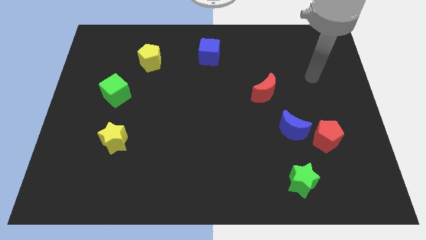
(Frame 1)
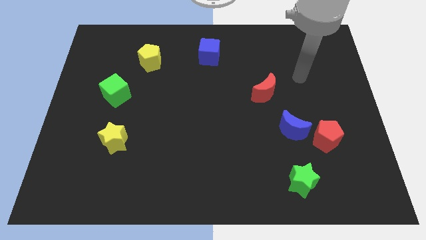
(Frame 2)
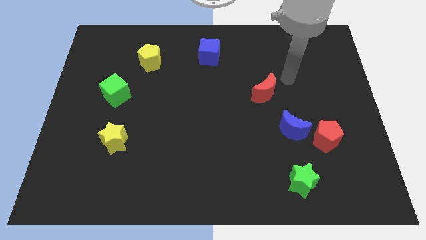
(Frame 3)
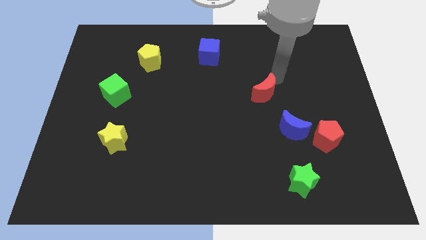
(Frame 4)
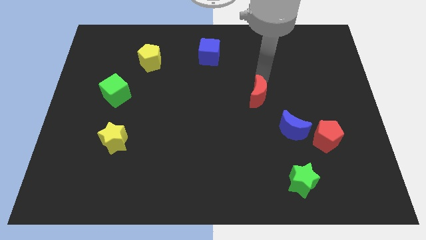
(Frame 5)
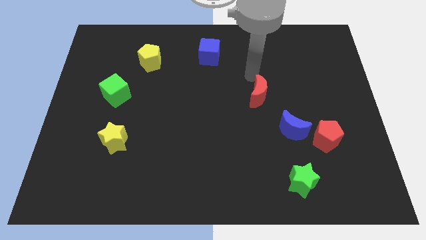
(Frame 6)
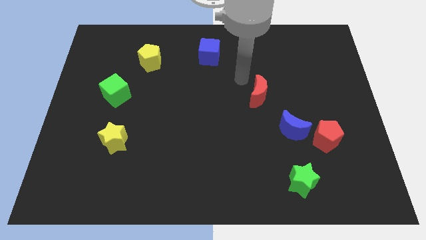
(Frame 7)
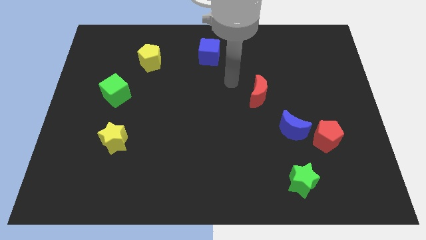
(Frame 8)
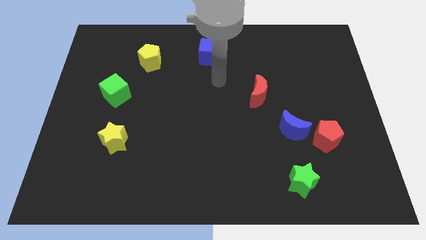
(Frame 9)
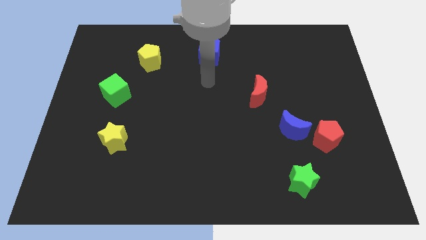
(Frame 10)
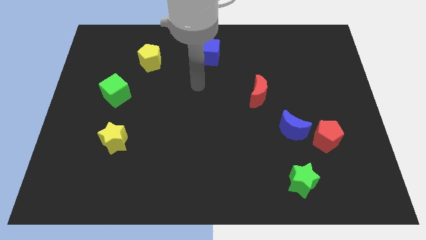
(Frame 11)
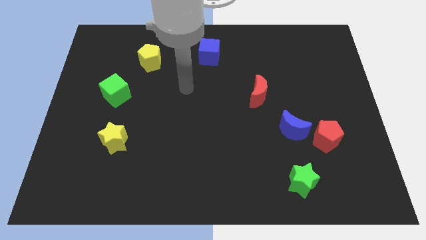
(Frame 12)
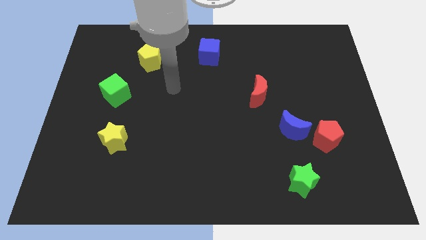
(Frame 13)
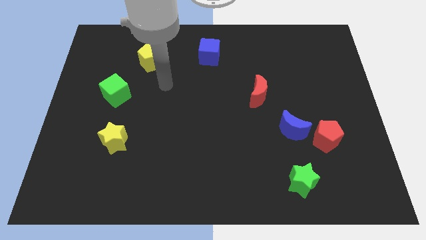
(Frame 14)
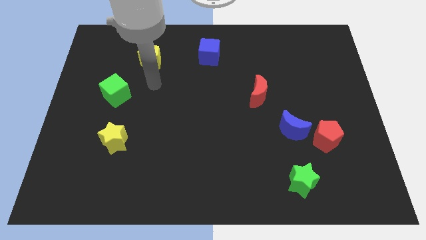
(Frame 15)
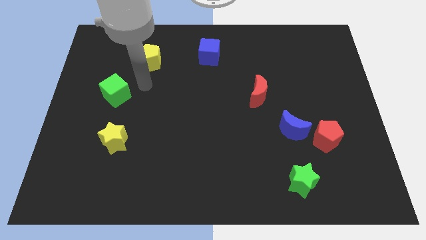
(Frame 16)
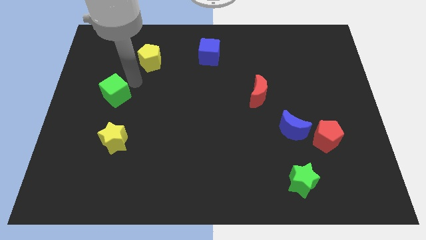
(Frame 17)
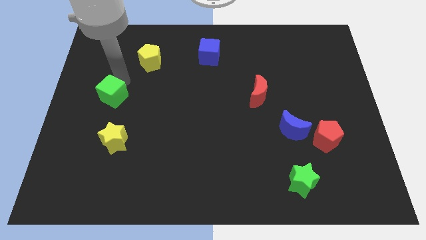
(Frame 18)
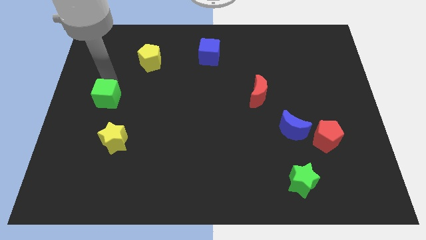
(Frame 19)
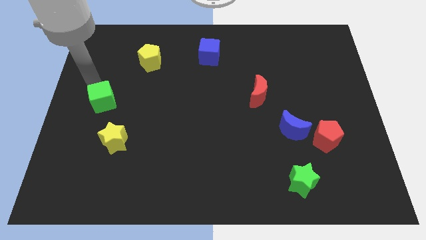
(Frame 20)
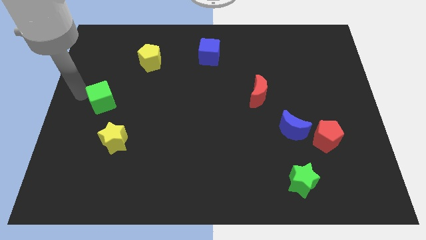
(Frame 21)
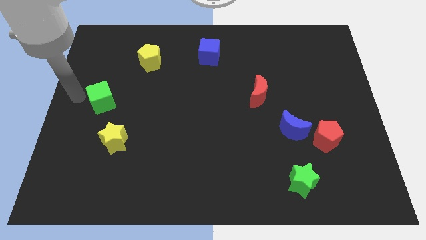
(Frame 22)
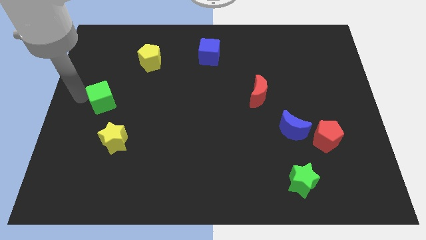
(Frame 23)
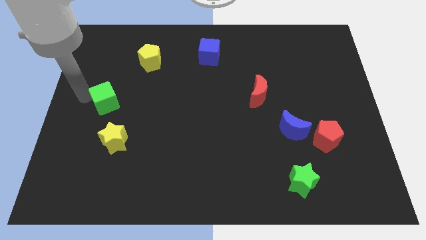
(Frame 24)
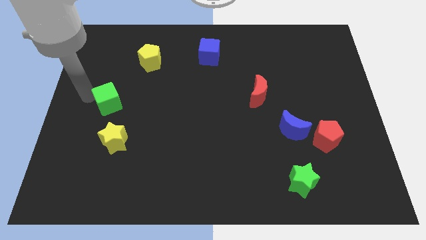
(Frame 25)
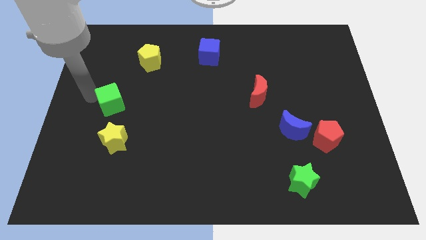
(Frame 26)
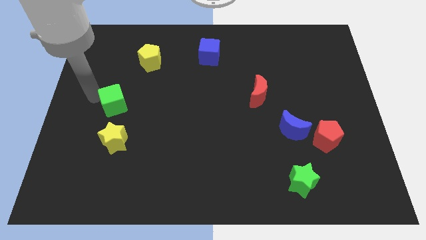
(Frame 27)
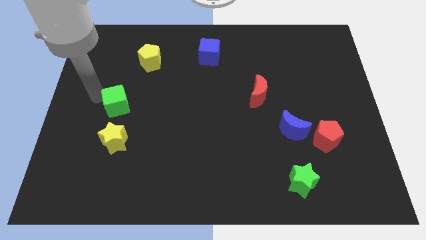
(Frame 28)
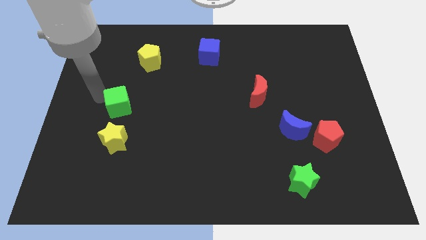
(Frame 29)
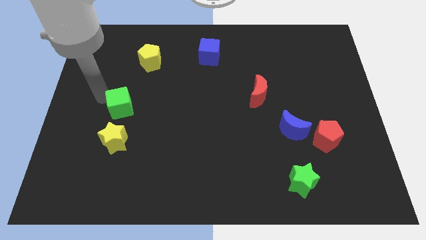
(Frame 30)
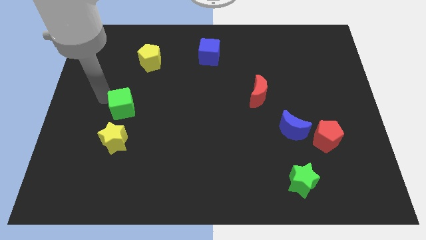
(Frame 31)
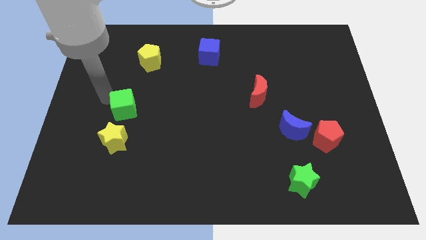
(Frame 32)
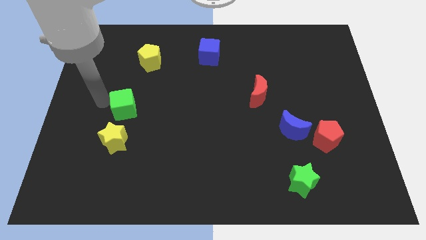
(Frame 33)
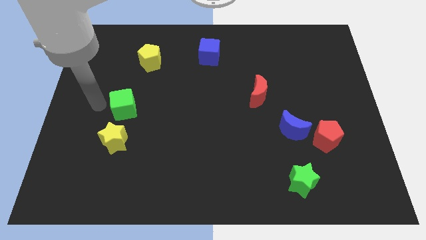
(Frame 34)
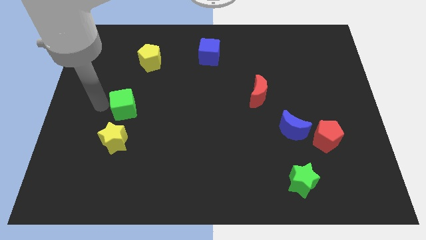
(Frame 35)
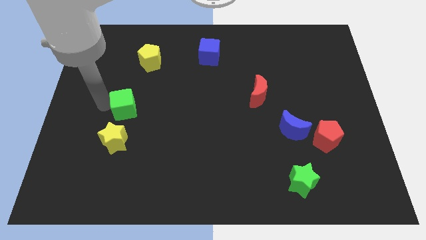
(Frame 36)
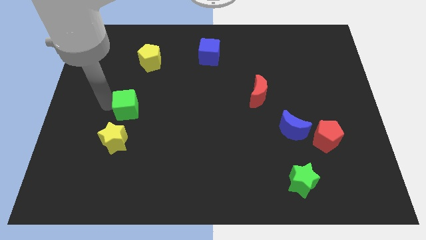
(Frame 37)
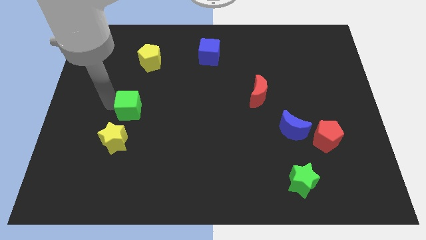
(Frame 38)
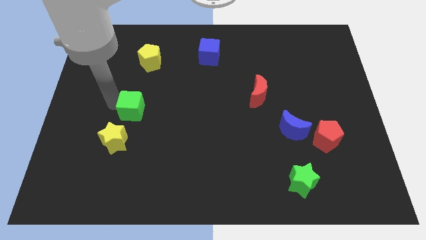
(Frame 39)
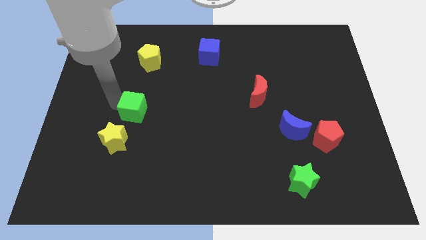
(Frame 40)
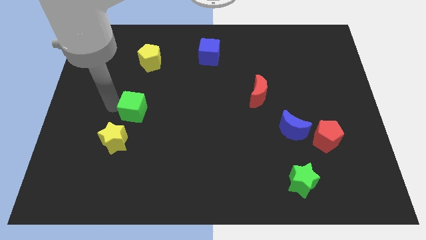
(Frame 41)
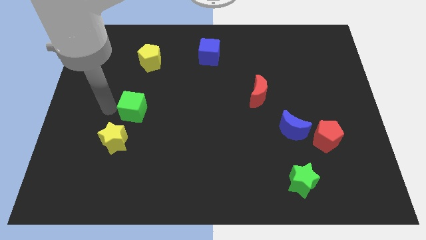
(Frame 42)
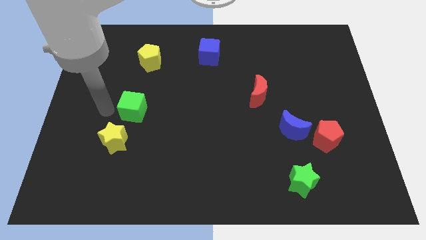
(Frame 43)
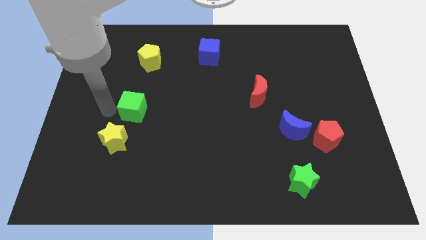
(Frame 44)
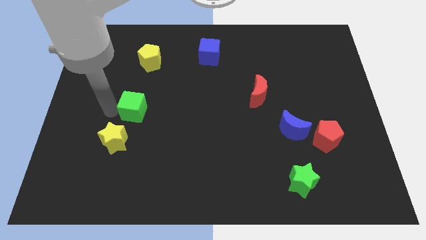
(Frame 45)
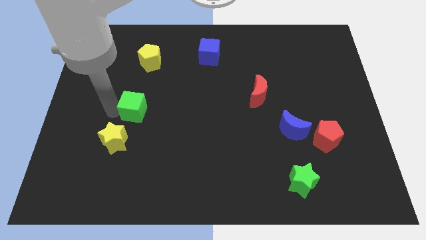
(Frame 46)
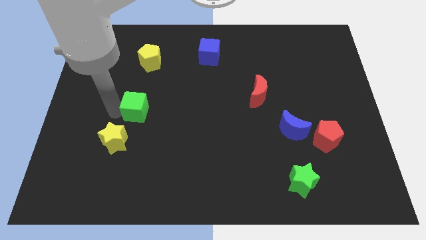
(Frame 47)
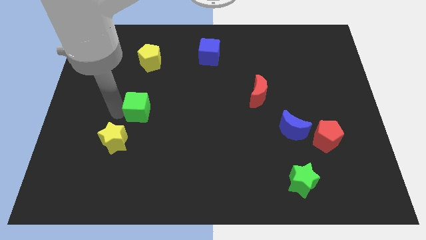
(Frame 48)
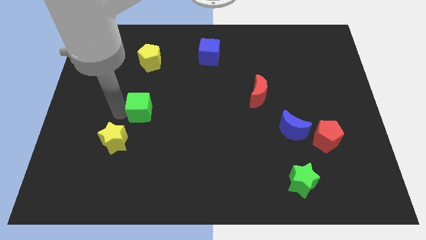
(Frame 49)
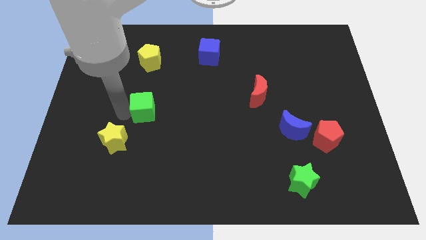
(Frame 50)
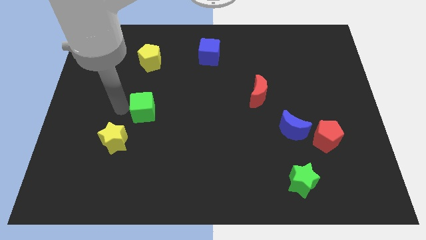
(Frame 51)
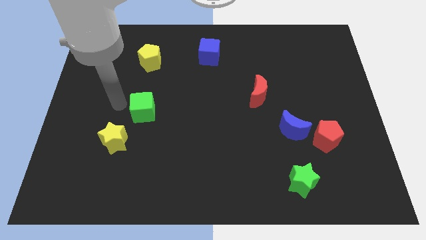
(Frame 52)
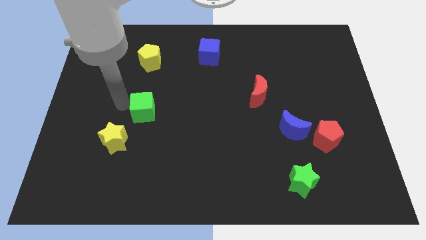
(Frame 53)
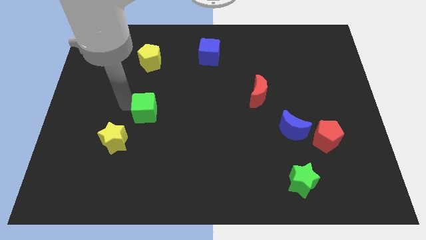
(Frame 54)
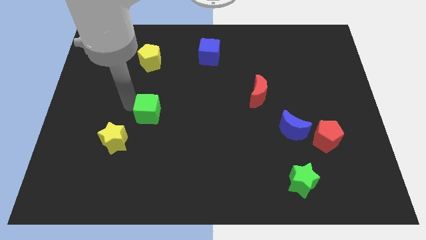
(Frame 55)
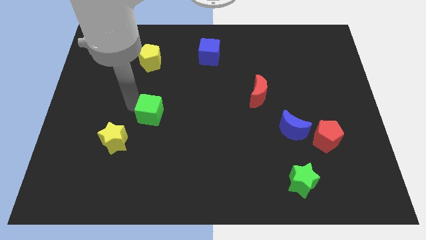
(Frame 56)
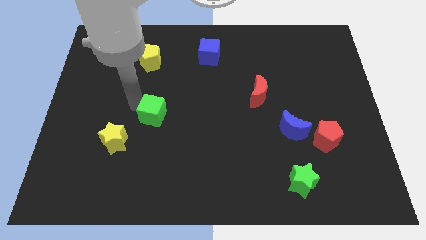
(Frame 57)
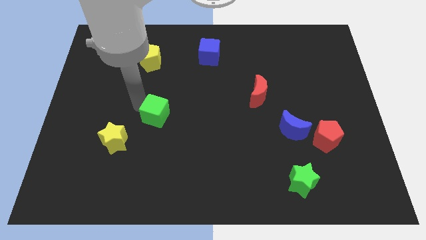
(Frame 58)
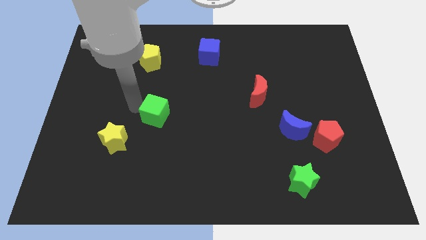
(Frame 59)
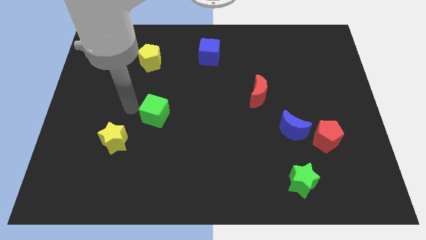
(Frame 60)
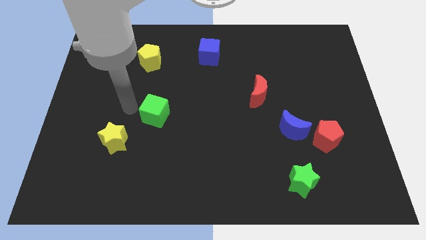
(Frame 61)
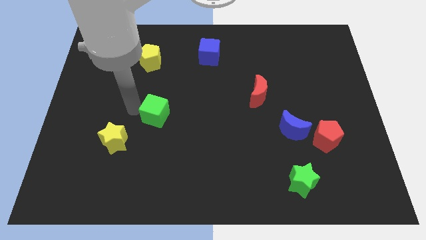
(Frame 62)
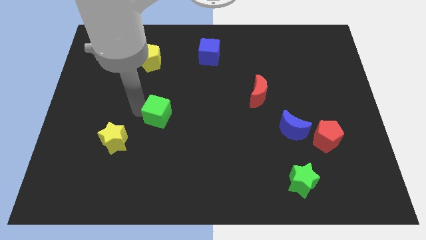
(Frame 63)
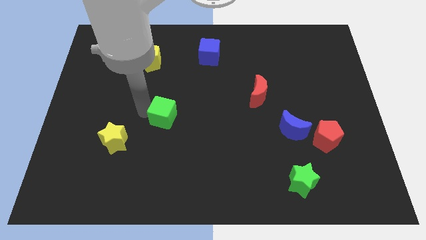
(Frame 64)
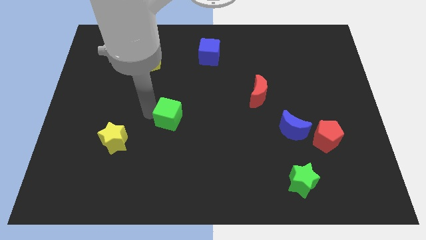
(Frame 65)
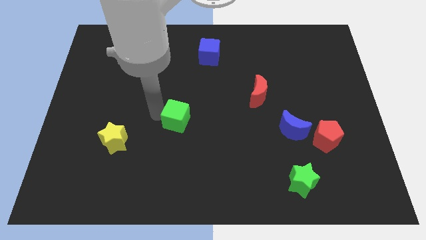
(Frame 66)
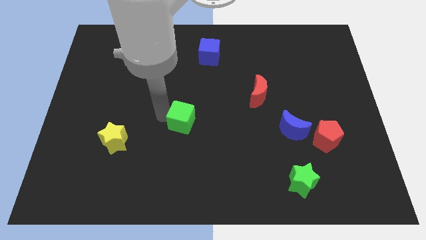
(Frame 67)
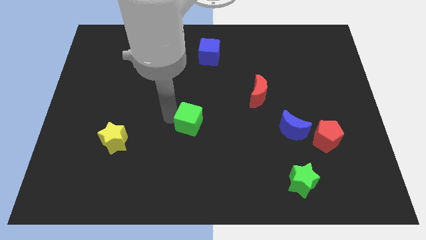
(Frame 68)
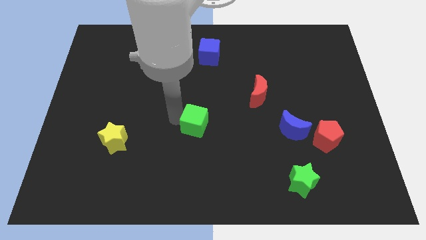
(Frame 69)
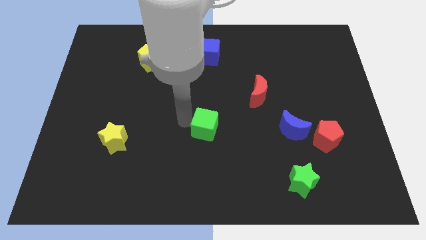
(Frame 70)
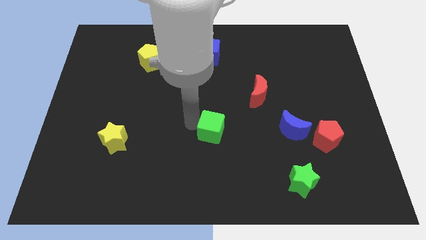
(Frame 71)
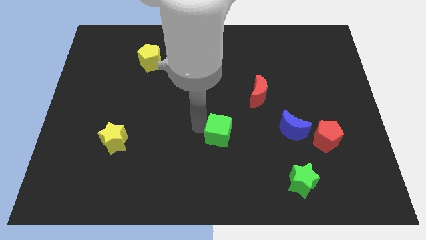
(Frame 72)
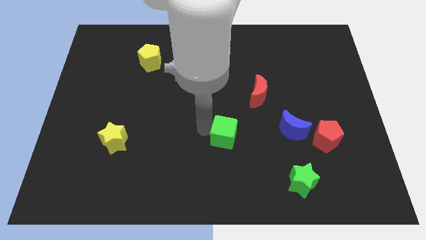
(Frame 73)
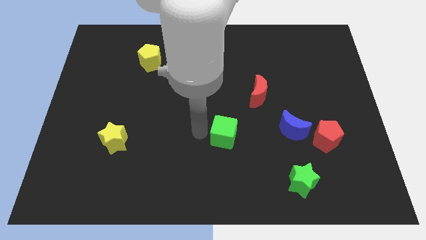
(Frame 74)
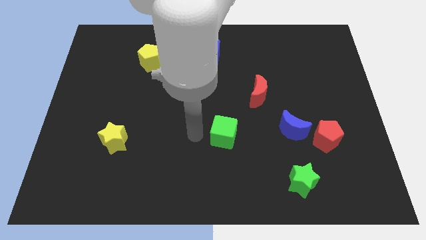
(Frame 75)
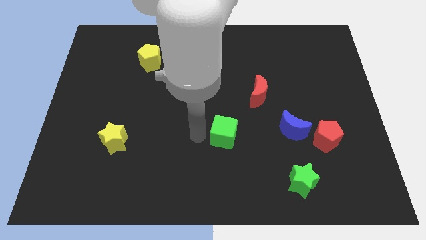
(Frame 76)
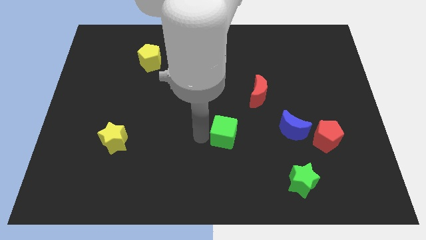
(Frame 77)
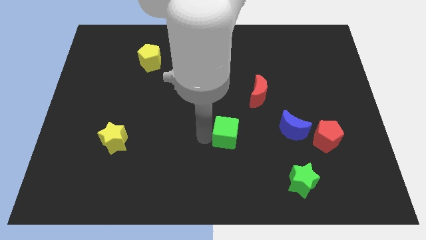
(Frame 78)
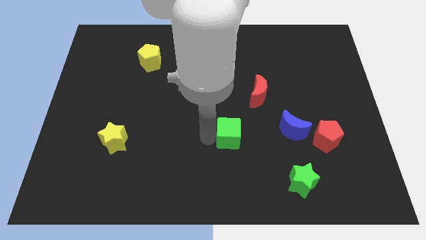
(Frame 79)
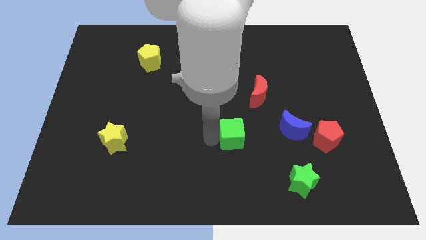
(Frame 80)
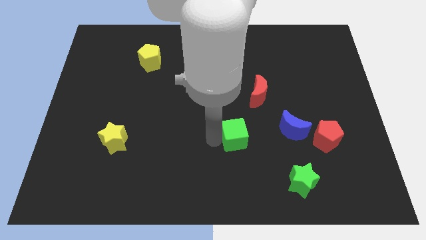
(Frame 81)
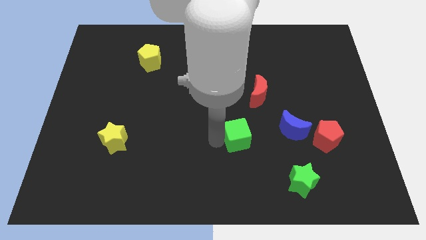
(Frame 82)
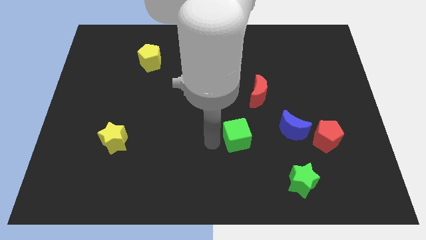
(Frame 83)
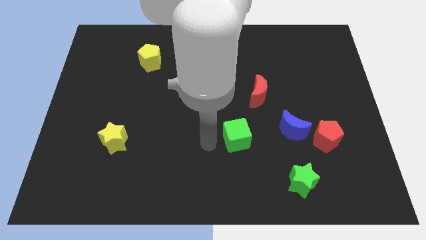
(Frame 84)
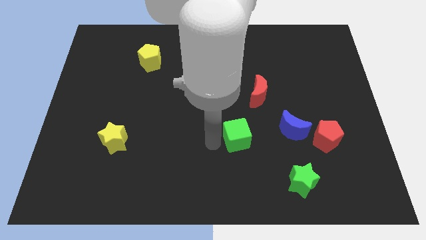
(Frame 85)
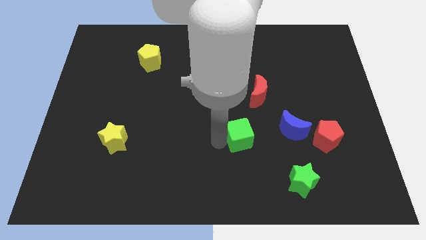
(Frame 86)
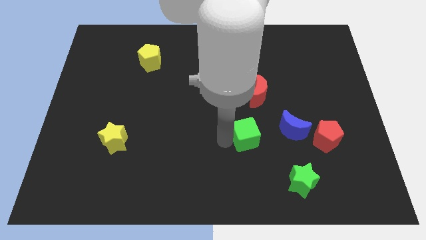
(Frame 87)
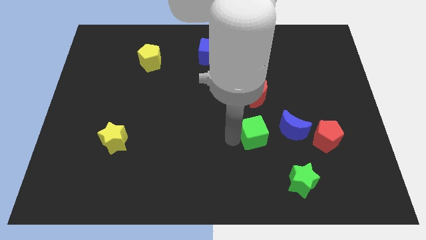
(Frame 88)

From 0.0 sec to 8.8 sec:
put the green cube to the left side of the red pentagon
